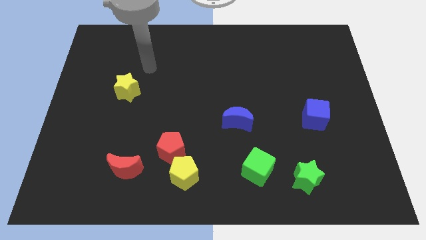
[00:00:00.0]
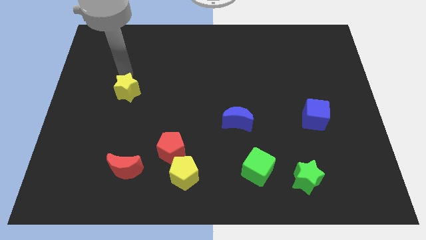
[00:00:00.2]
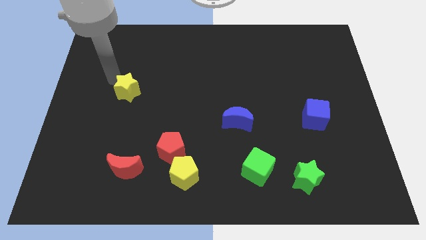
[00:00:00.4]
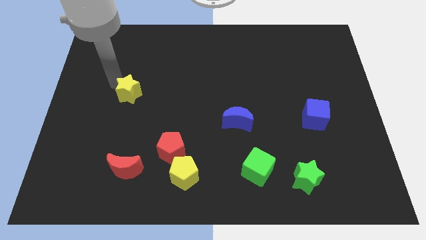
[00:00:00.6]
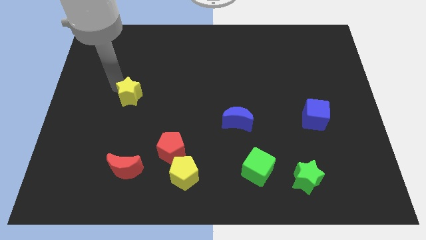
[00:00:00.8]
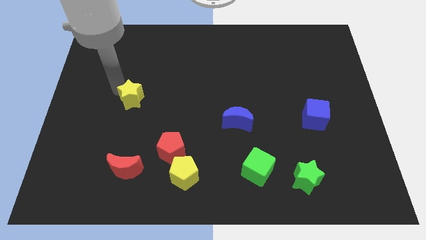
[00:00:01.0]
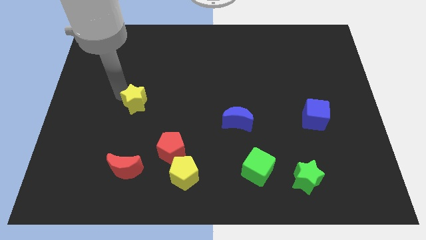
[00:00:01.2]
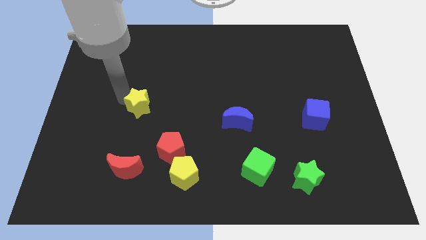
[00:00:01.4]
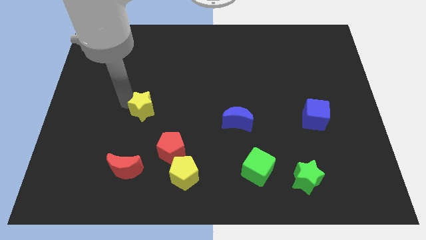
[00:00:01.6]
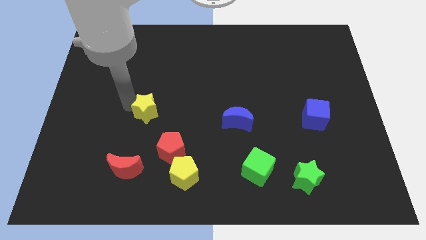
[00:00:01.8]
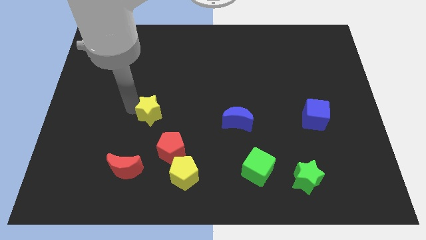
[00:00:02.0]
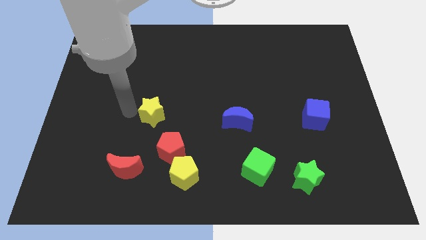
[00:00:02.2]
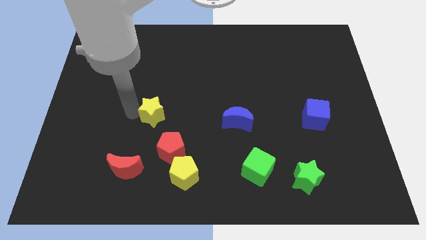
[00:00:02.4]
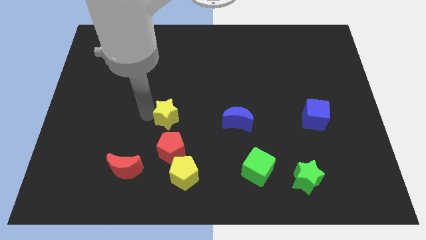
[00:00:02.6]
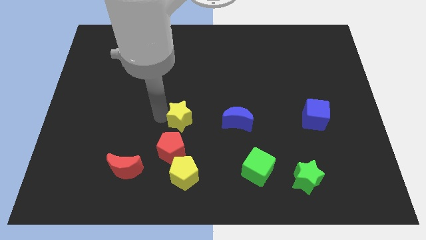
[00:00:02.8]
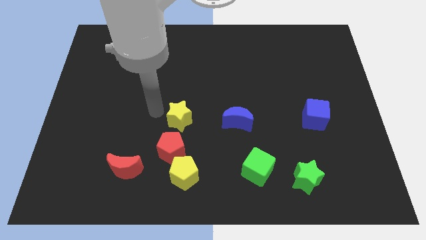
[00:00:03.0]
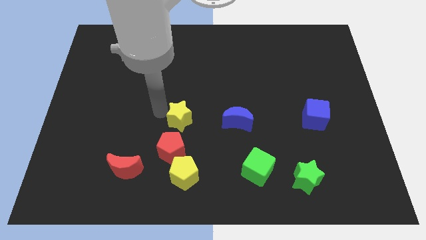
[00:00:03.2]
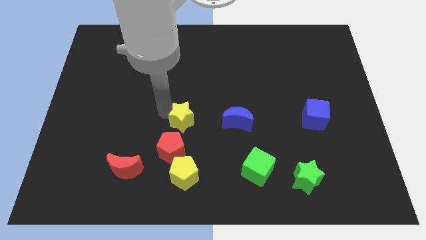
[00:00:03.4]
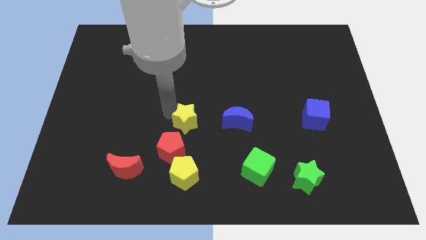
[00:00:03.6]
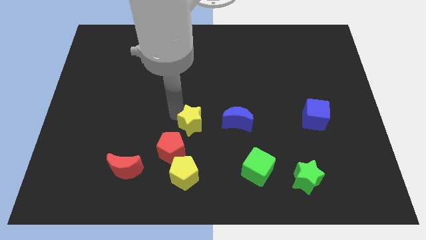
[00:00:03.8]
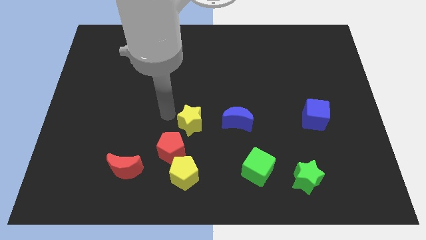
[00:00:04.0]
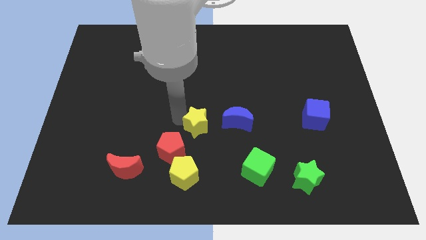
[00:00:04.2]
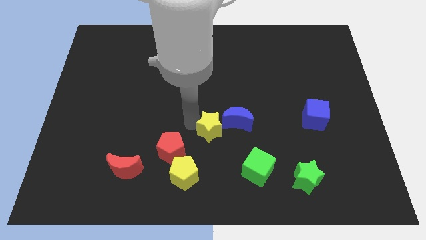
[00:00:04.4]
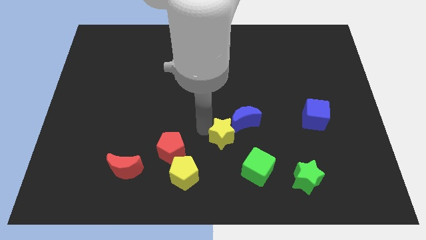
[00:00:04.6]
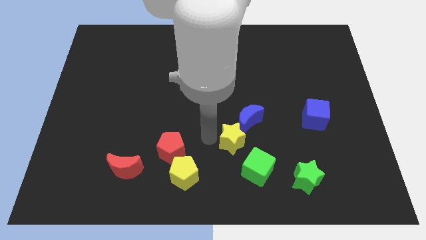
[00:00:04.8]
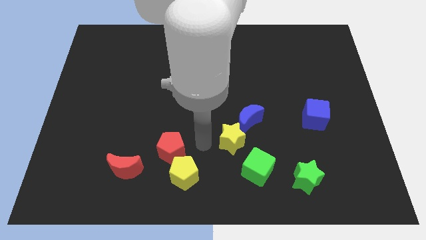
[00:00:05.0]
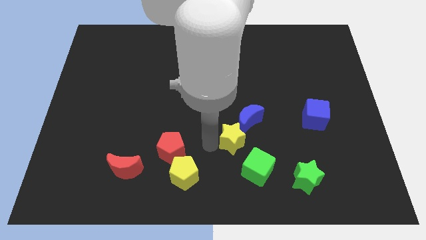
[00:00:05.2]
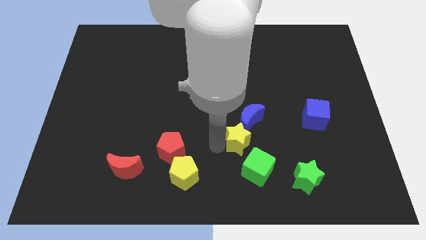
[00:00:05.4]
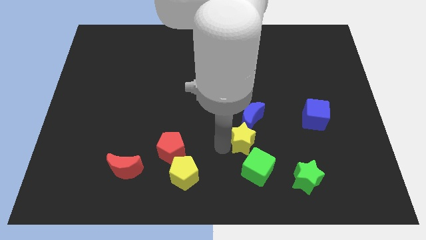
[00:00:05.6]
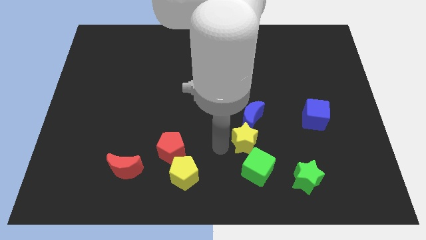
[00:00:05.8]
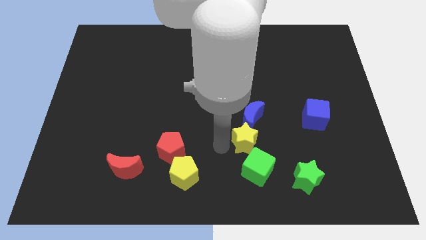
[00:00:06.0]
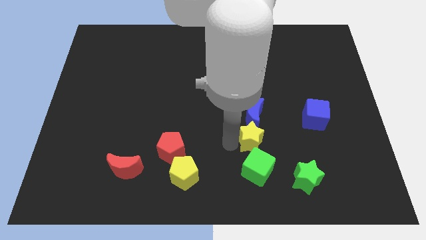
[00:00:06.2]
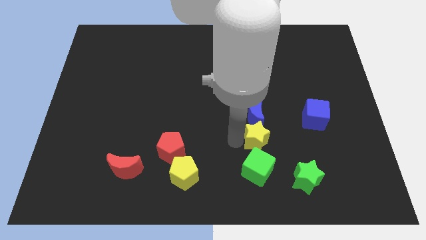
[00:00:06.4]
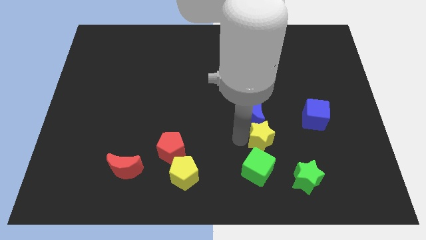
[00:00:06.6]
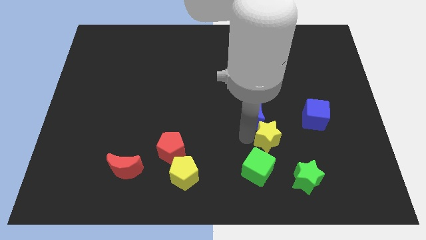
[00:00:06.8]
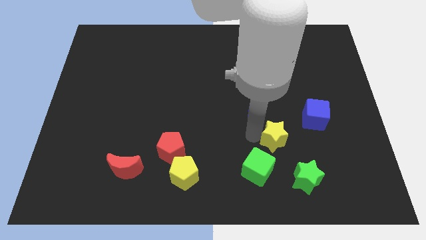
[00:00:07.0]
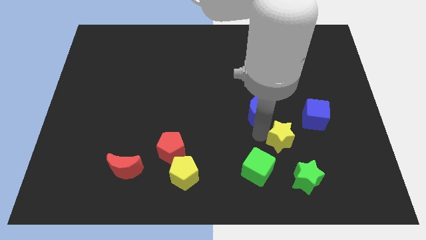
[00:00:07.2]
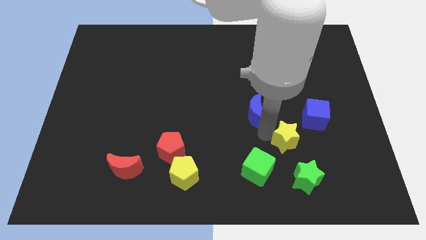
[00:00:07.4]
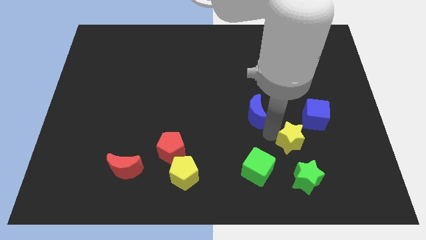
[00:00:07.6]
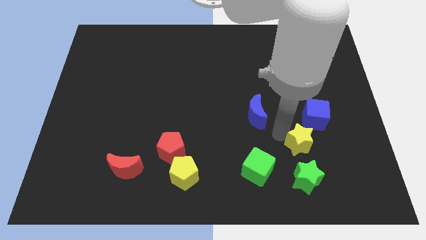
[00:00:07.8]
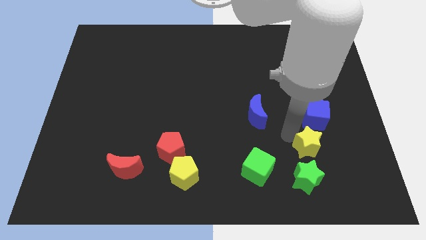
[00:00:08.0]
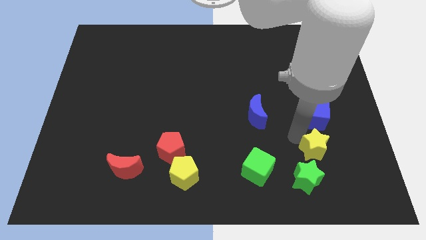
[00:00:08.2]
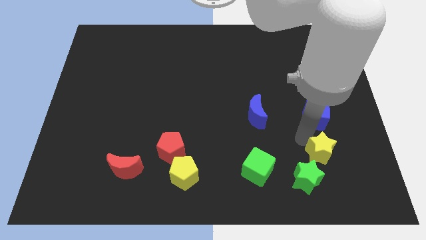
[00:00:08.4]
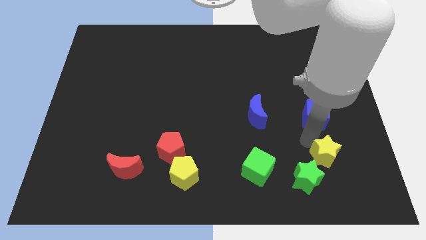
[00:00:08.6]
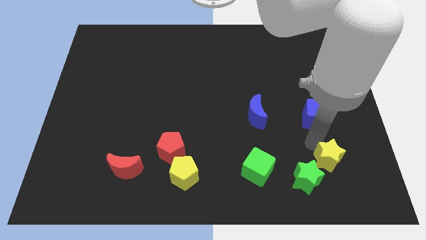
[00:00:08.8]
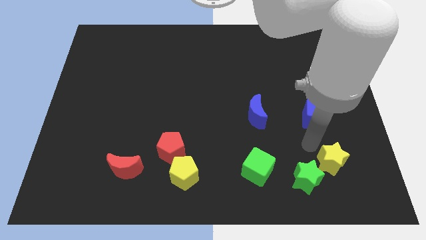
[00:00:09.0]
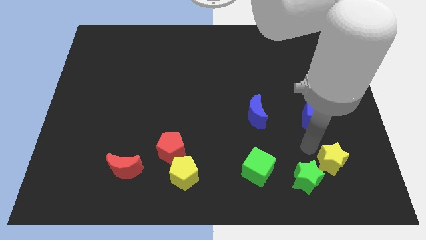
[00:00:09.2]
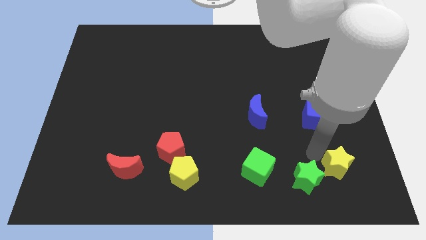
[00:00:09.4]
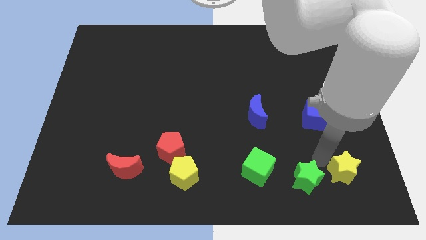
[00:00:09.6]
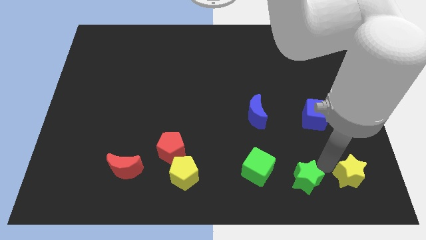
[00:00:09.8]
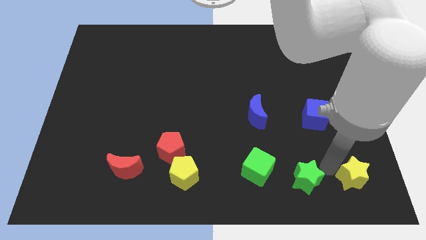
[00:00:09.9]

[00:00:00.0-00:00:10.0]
put the yellow star to the bottom right of the board
